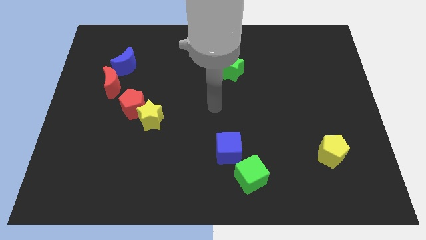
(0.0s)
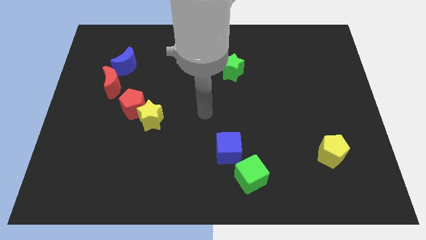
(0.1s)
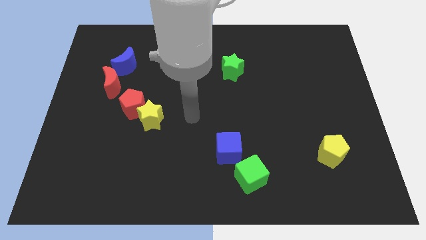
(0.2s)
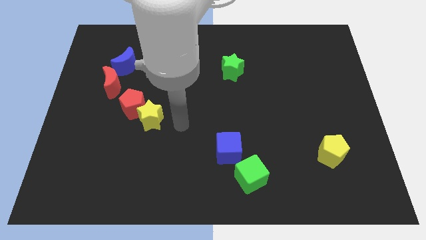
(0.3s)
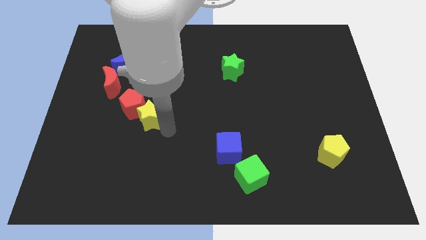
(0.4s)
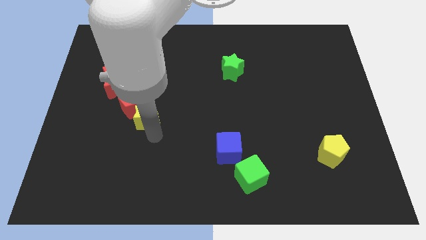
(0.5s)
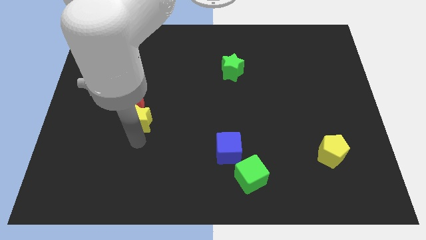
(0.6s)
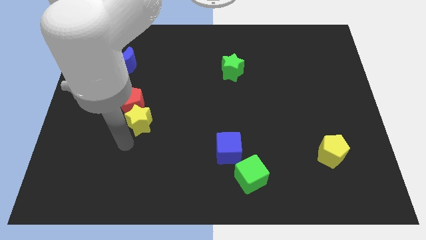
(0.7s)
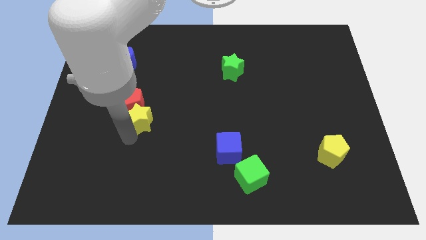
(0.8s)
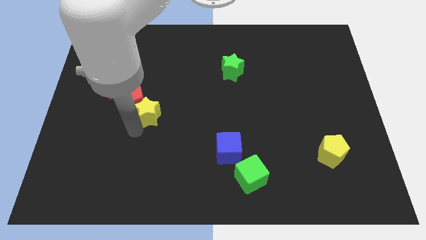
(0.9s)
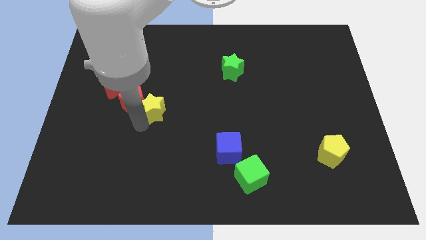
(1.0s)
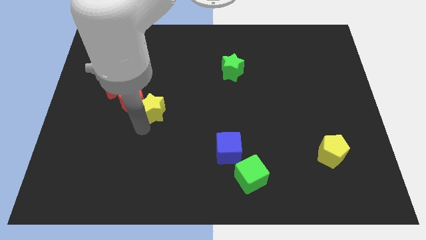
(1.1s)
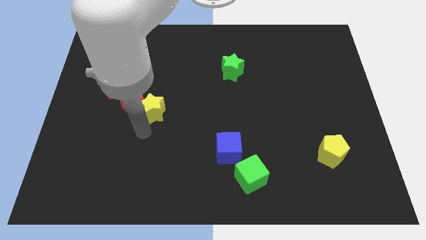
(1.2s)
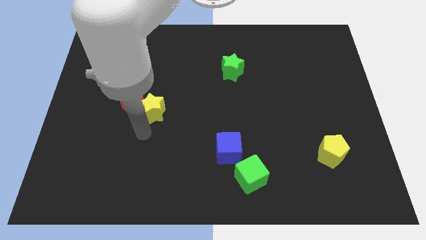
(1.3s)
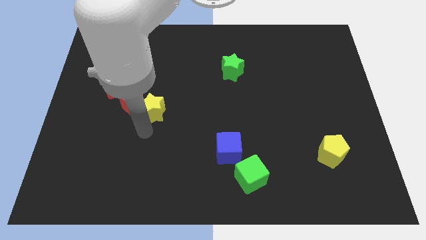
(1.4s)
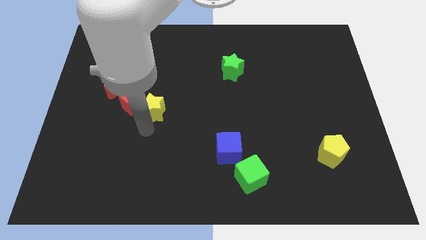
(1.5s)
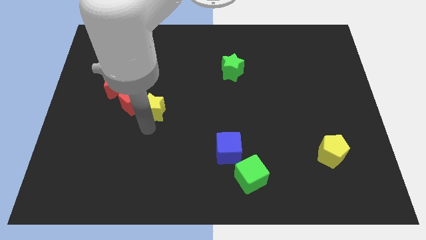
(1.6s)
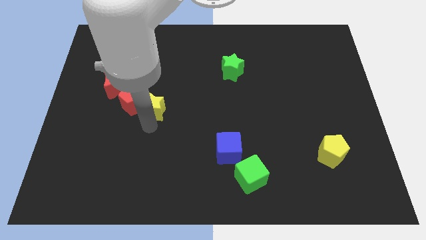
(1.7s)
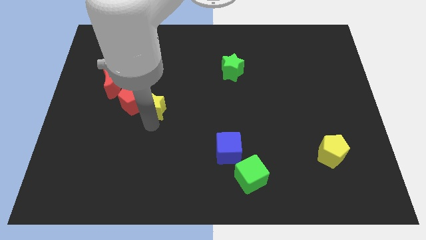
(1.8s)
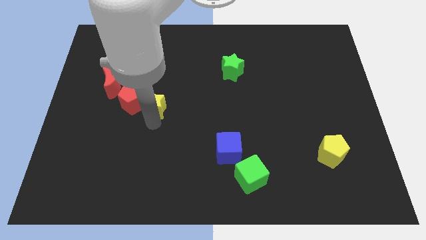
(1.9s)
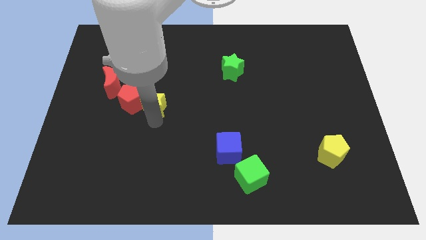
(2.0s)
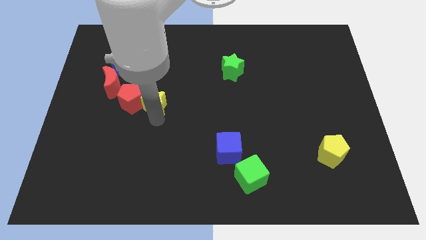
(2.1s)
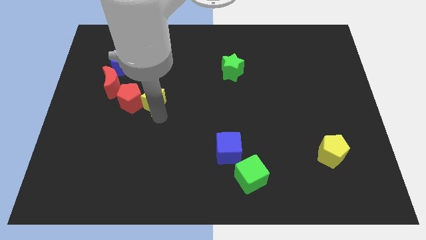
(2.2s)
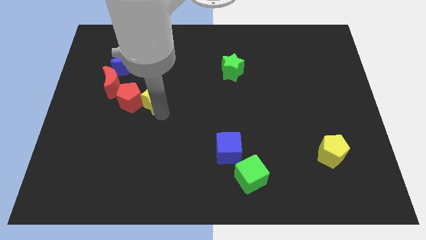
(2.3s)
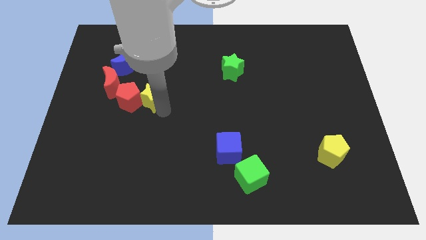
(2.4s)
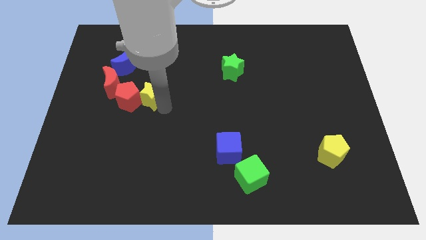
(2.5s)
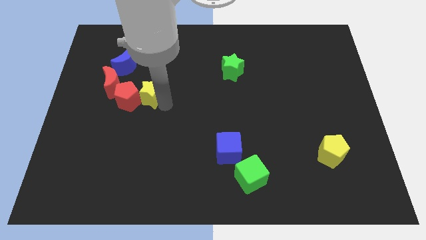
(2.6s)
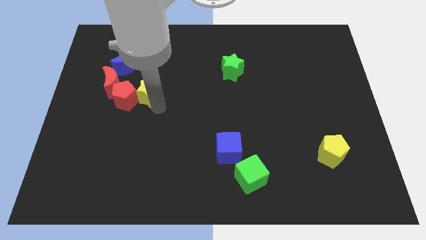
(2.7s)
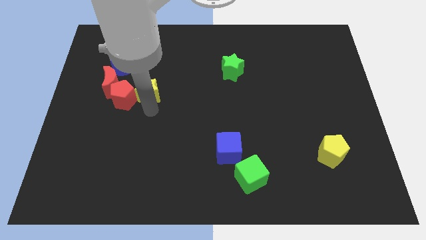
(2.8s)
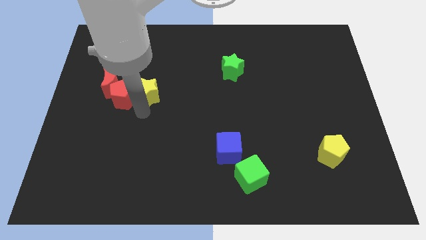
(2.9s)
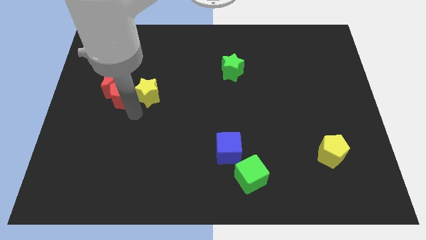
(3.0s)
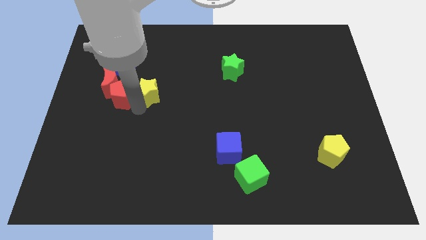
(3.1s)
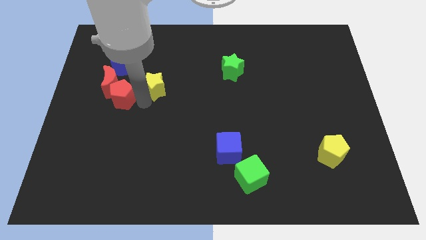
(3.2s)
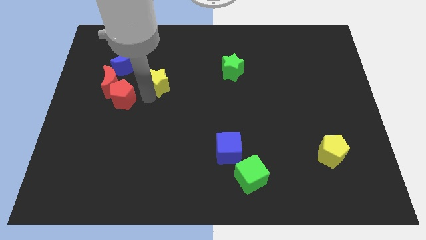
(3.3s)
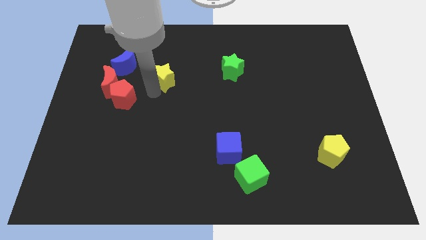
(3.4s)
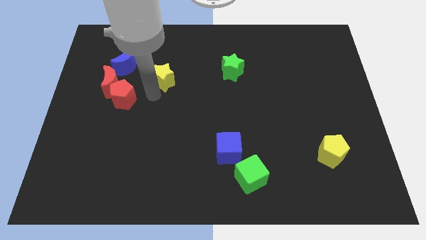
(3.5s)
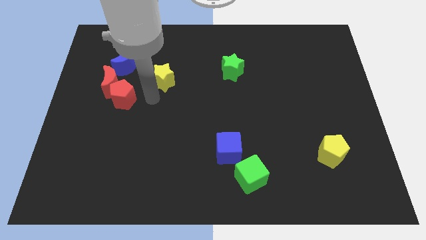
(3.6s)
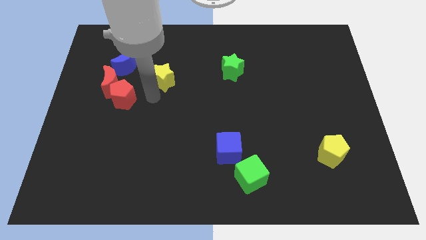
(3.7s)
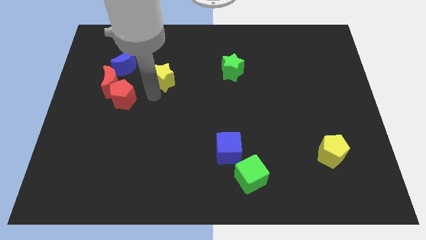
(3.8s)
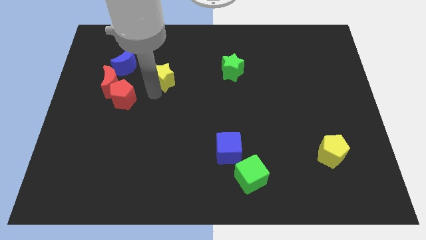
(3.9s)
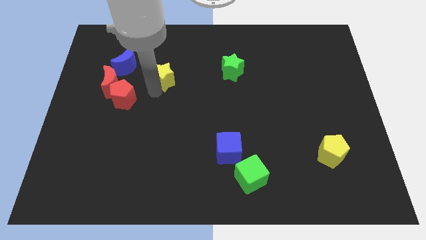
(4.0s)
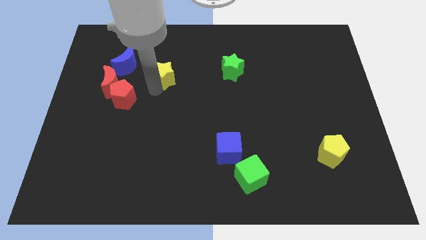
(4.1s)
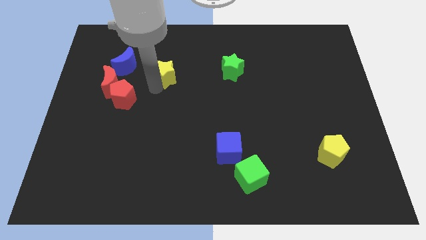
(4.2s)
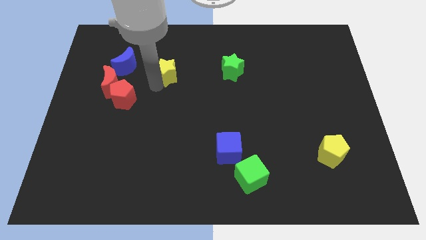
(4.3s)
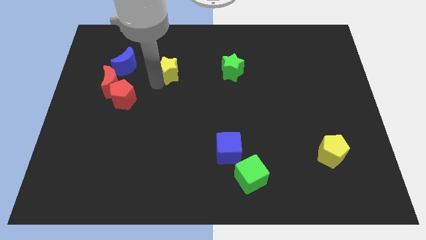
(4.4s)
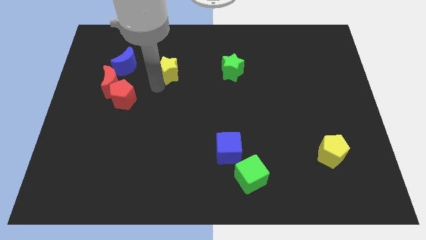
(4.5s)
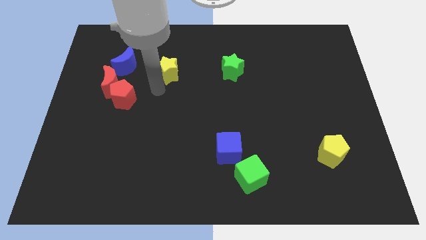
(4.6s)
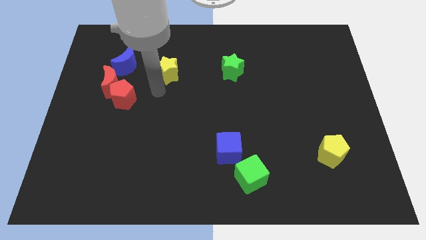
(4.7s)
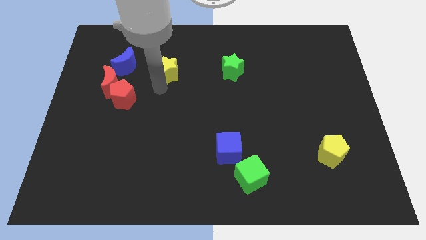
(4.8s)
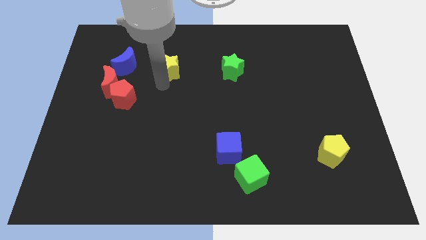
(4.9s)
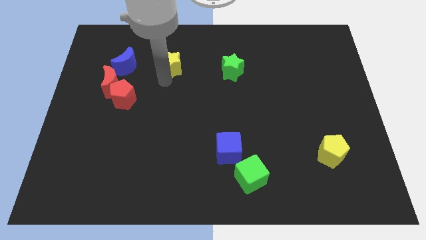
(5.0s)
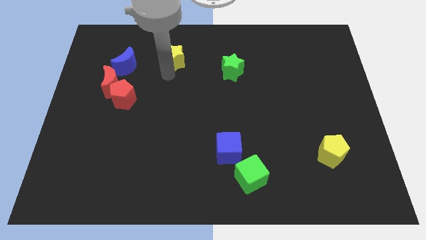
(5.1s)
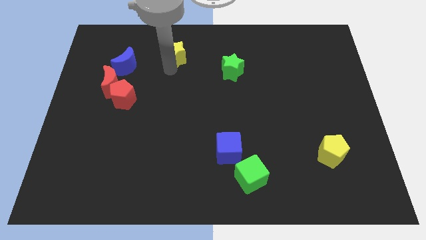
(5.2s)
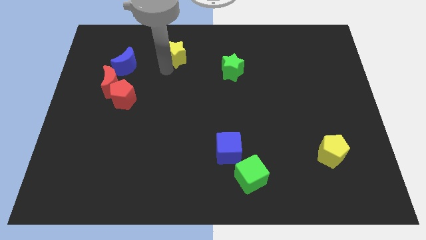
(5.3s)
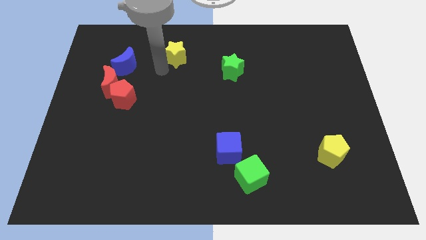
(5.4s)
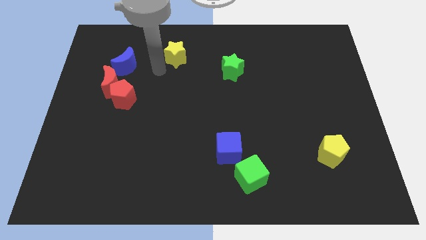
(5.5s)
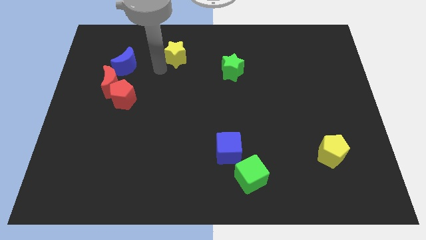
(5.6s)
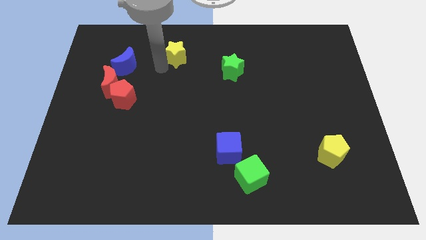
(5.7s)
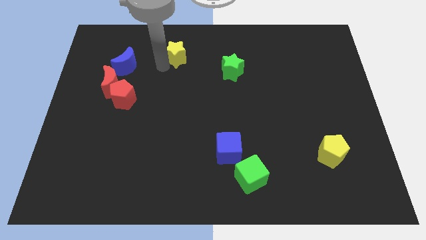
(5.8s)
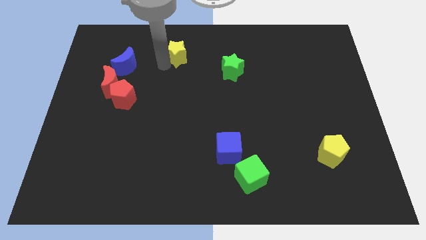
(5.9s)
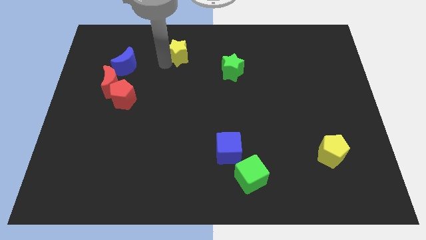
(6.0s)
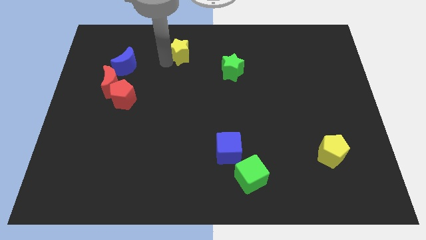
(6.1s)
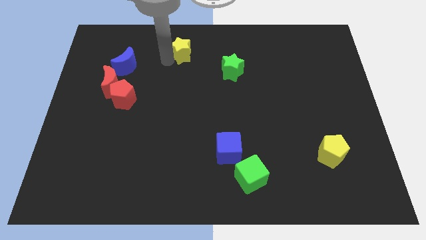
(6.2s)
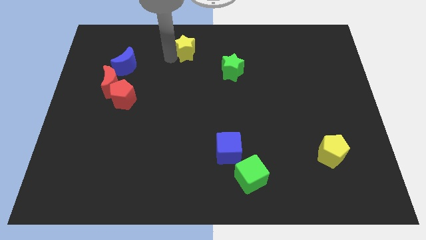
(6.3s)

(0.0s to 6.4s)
put the yellow star to the towards your base

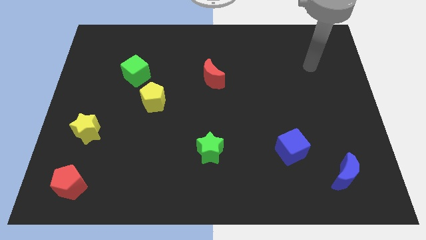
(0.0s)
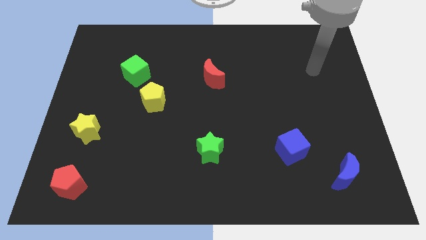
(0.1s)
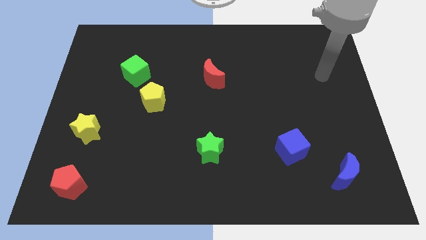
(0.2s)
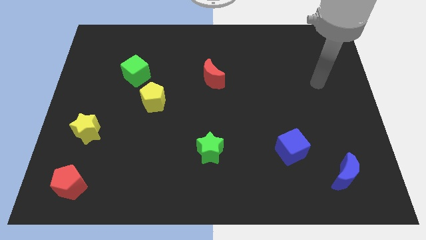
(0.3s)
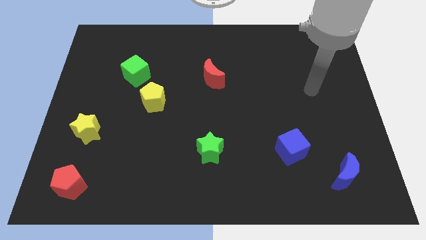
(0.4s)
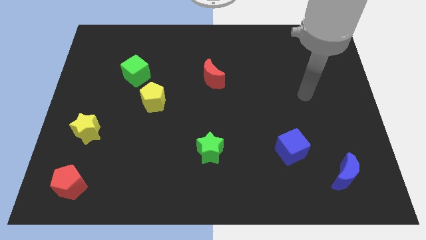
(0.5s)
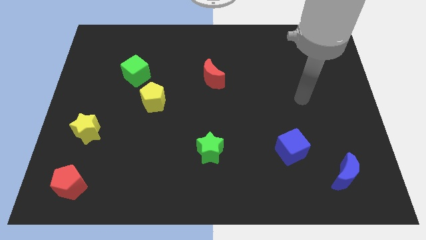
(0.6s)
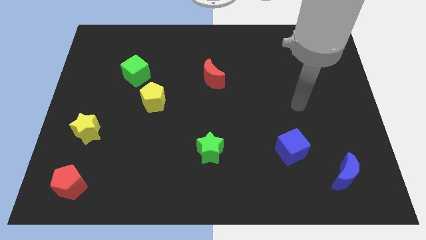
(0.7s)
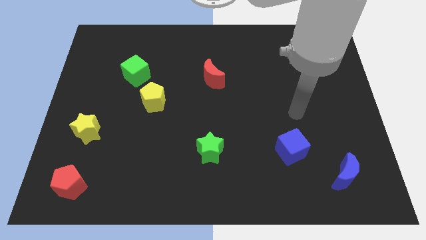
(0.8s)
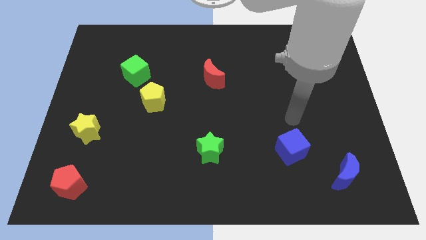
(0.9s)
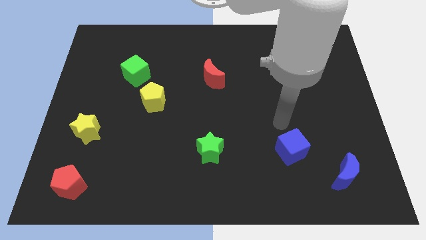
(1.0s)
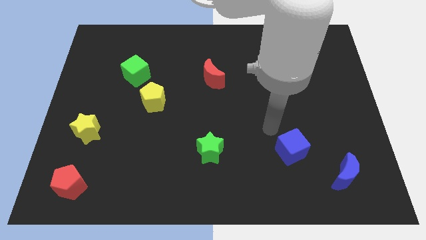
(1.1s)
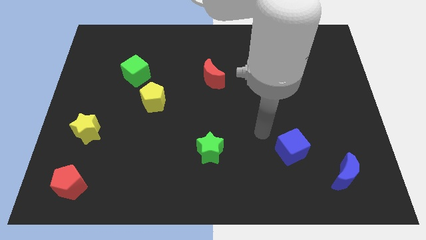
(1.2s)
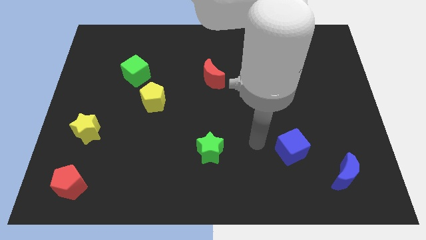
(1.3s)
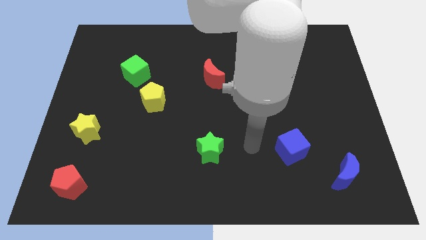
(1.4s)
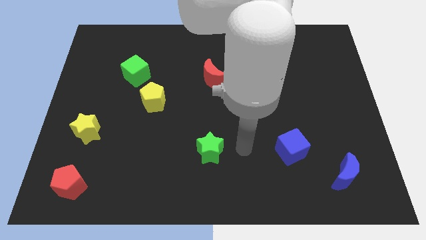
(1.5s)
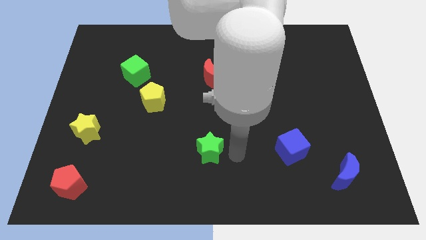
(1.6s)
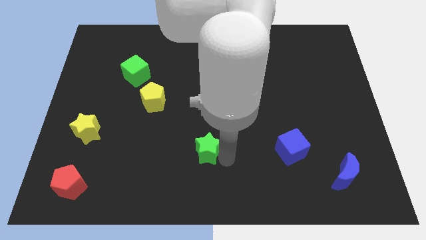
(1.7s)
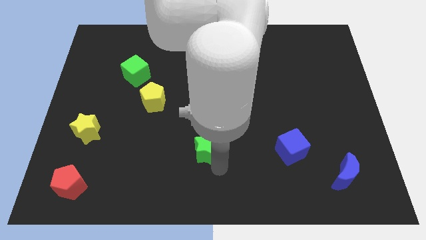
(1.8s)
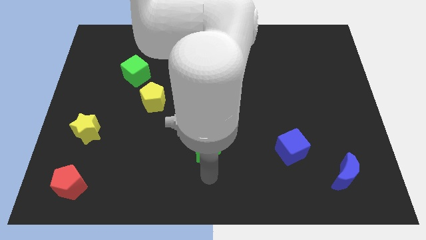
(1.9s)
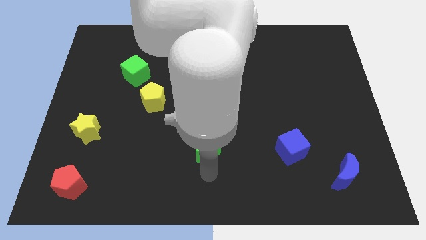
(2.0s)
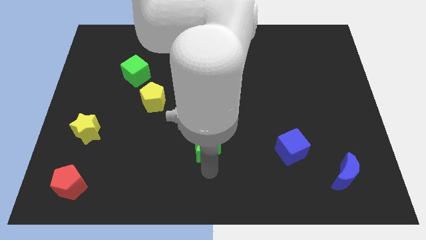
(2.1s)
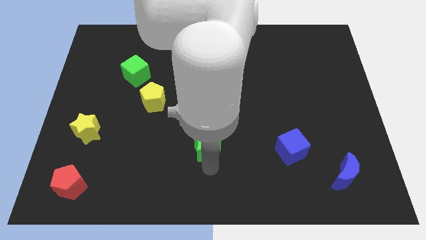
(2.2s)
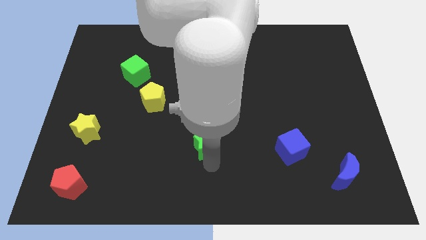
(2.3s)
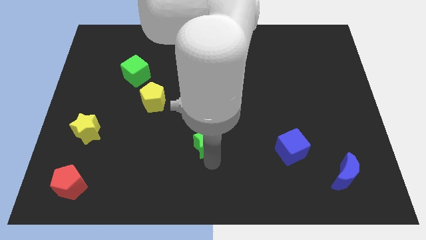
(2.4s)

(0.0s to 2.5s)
move the green star to the center of the board
